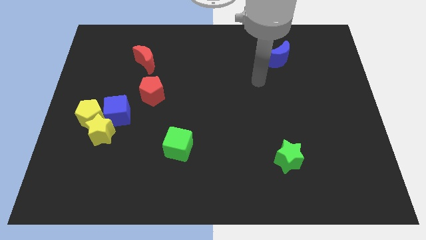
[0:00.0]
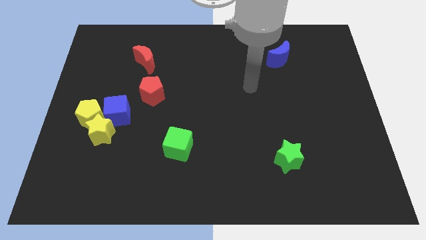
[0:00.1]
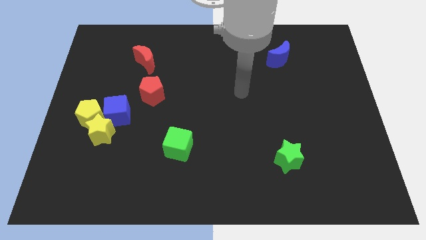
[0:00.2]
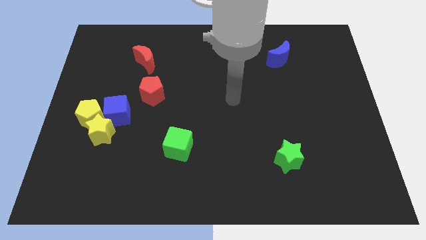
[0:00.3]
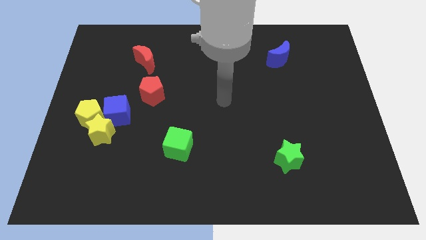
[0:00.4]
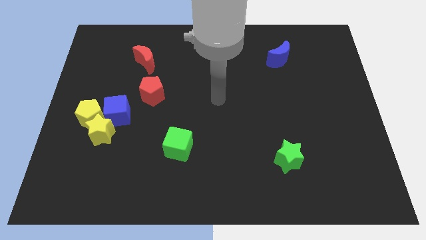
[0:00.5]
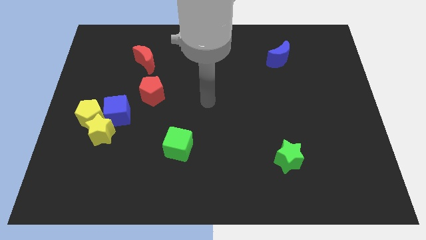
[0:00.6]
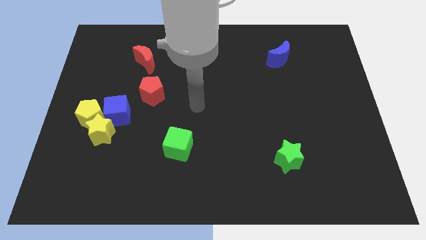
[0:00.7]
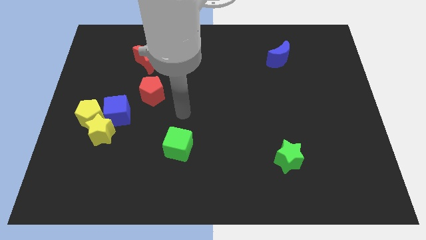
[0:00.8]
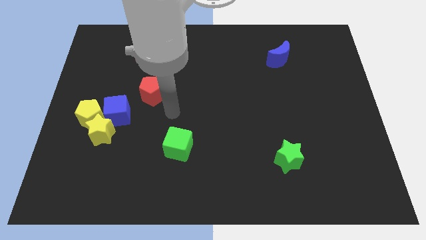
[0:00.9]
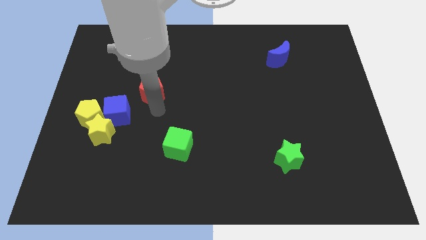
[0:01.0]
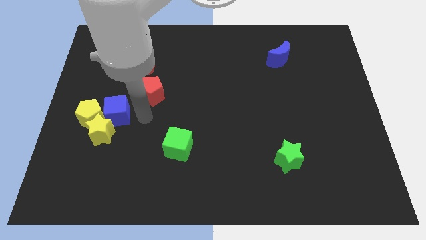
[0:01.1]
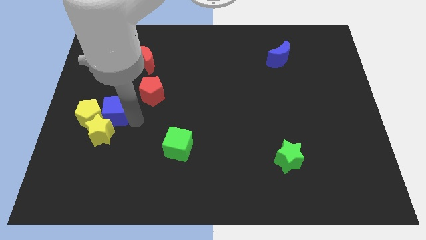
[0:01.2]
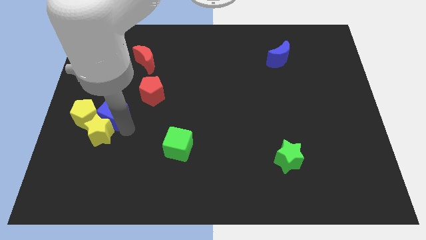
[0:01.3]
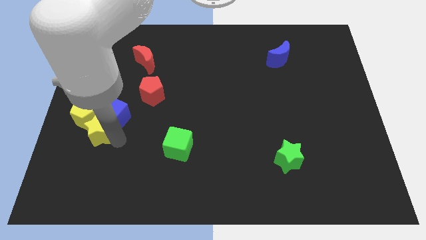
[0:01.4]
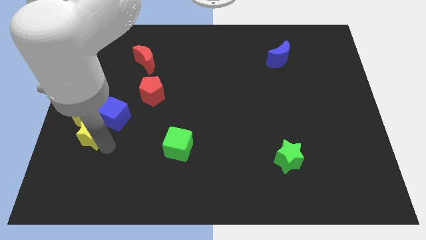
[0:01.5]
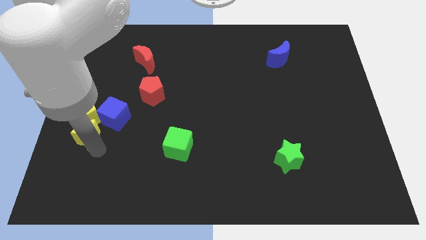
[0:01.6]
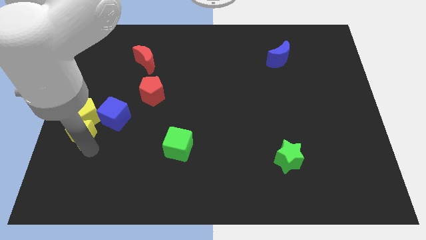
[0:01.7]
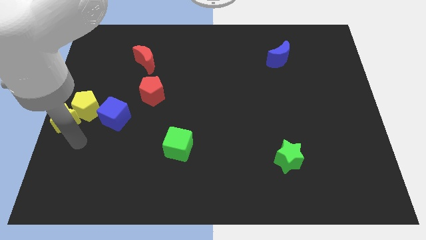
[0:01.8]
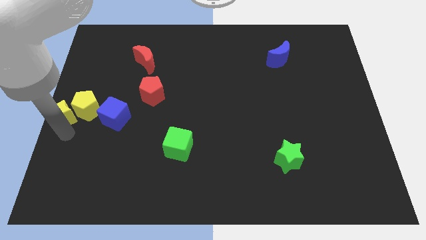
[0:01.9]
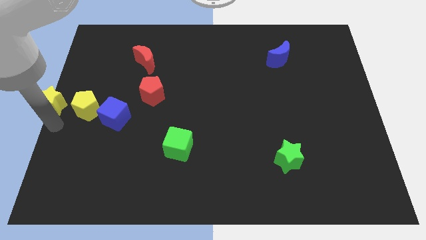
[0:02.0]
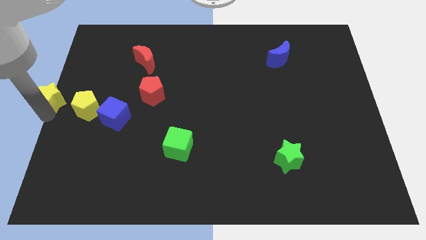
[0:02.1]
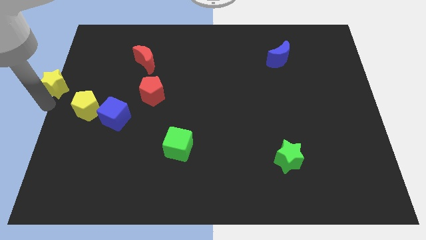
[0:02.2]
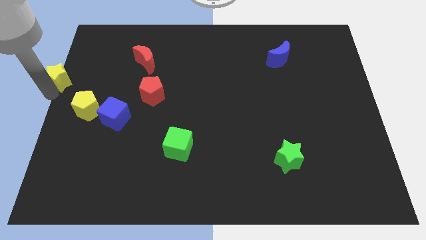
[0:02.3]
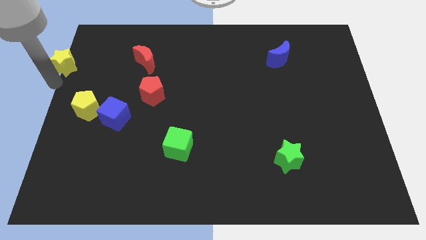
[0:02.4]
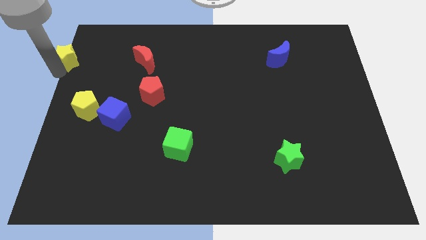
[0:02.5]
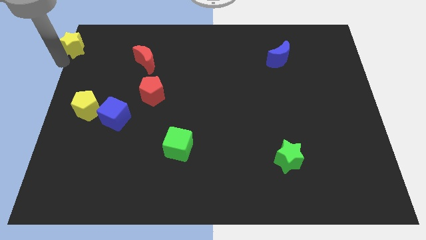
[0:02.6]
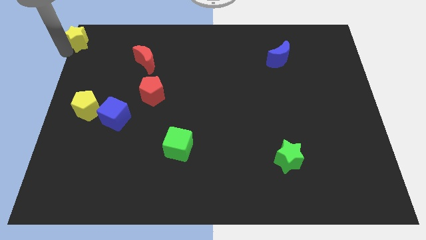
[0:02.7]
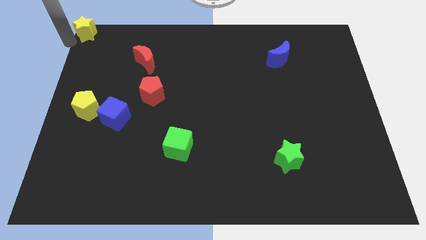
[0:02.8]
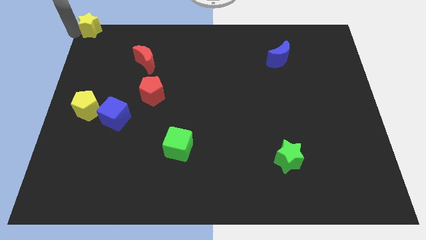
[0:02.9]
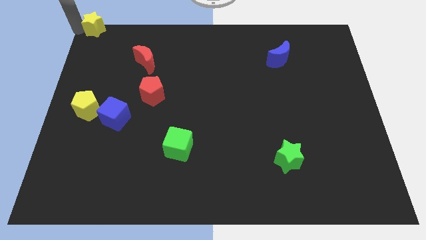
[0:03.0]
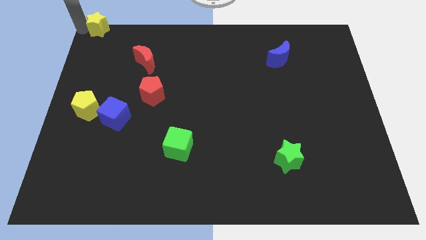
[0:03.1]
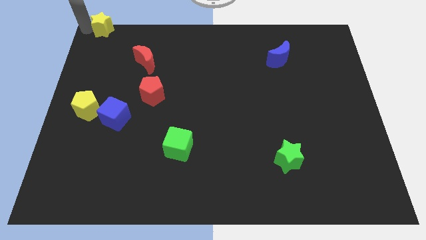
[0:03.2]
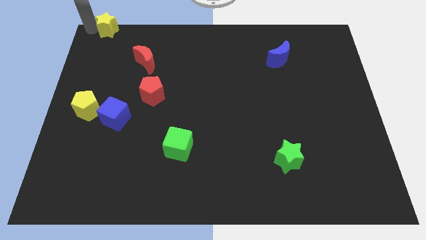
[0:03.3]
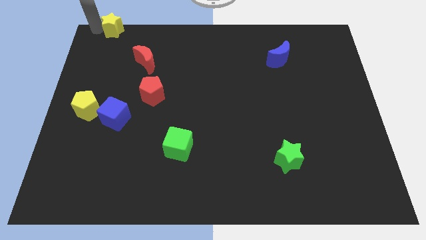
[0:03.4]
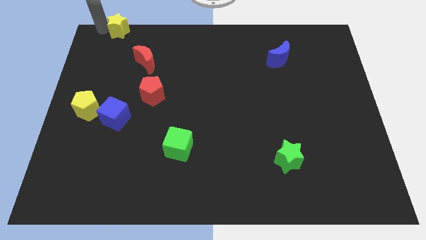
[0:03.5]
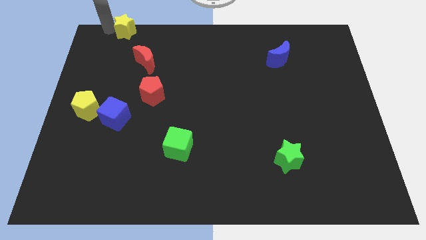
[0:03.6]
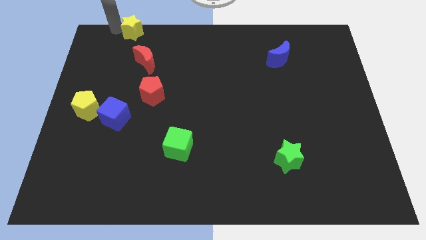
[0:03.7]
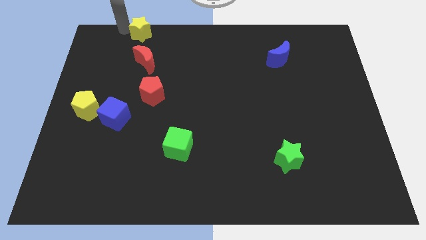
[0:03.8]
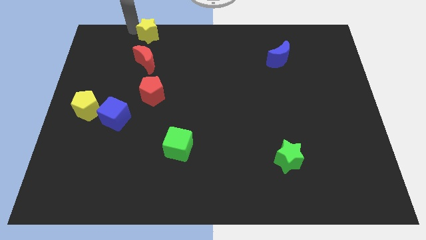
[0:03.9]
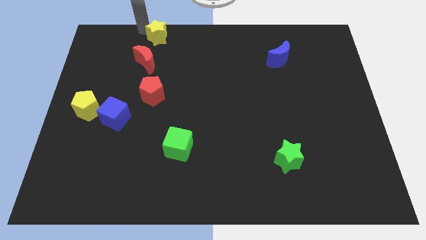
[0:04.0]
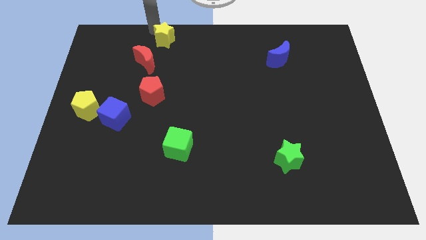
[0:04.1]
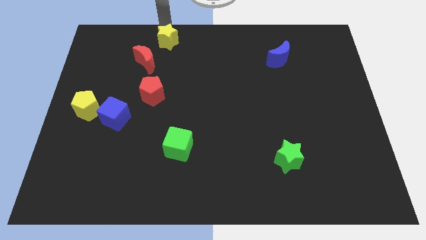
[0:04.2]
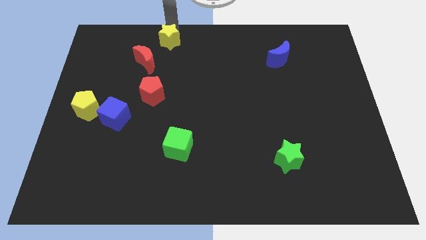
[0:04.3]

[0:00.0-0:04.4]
push the yellow star upwards and right

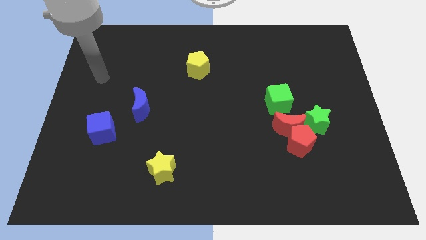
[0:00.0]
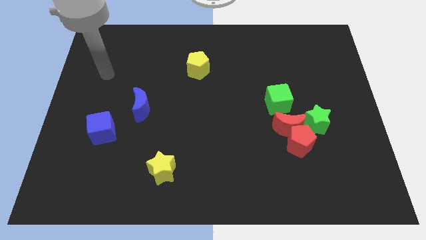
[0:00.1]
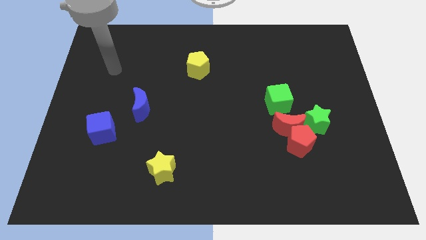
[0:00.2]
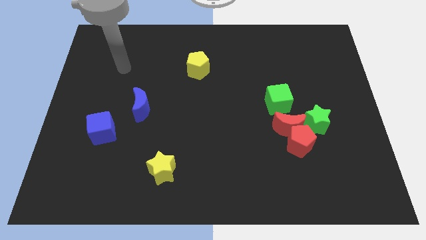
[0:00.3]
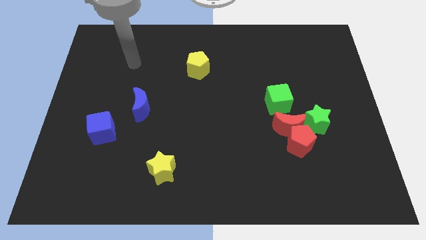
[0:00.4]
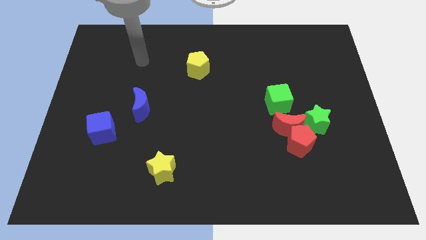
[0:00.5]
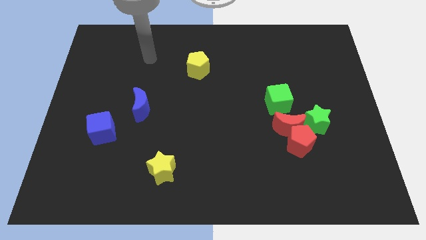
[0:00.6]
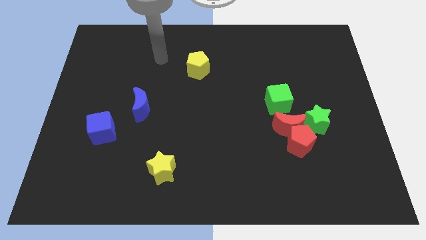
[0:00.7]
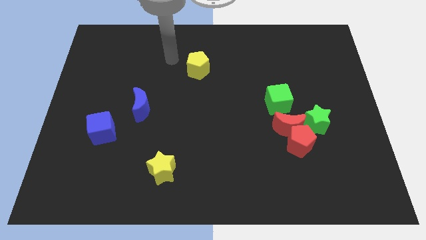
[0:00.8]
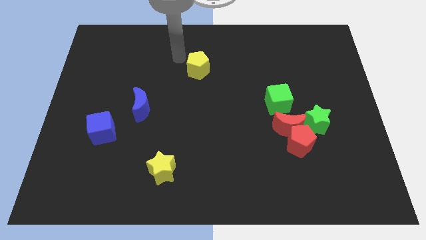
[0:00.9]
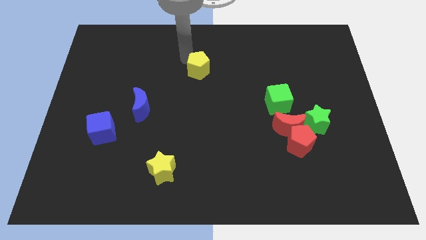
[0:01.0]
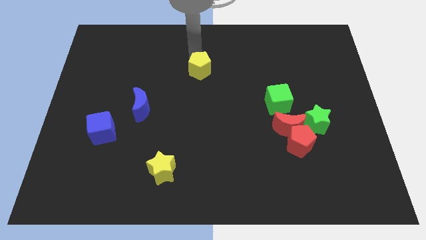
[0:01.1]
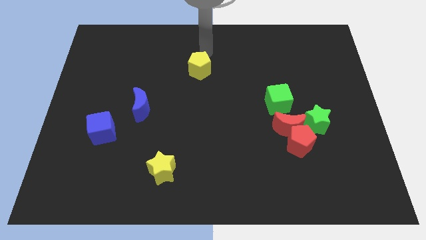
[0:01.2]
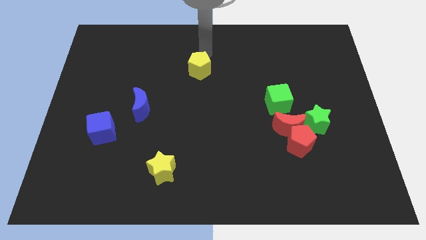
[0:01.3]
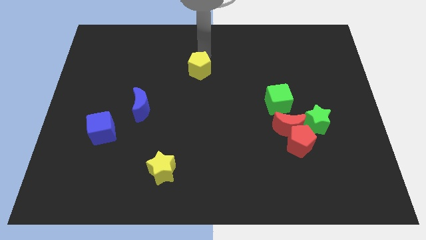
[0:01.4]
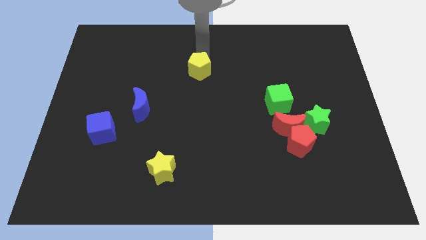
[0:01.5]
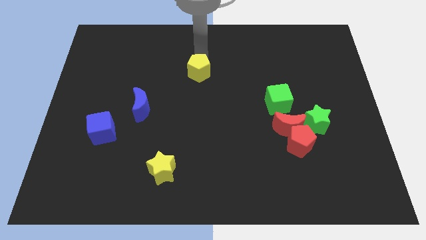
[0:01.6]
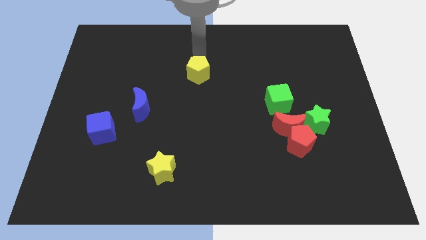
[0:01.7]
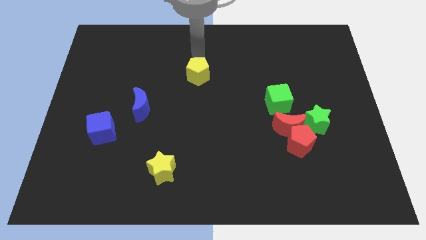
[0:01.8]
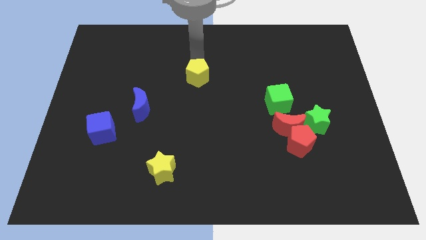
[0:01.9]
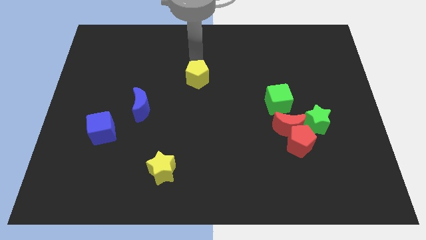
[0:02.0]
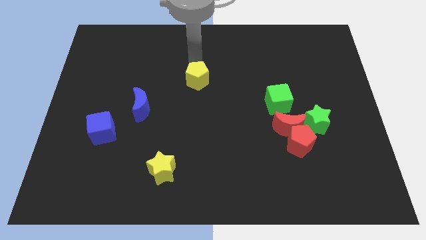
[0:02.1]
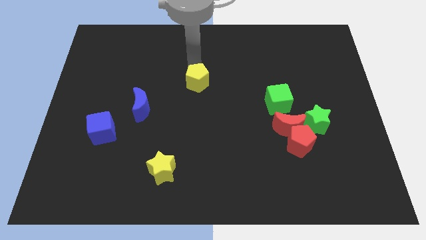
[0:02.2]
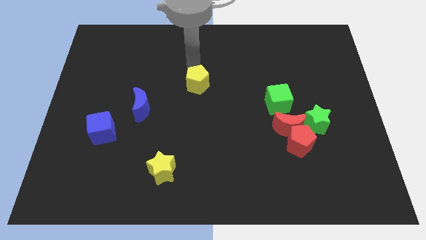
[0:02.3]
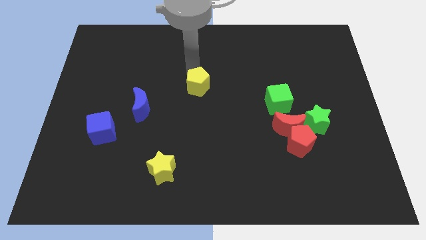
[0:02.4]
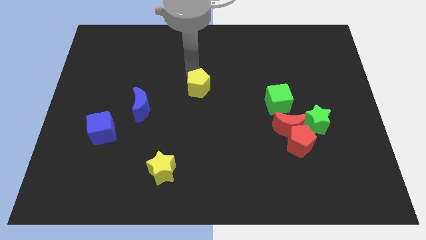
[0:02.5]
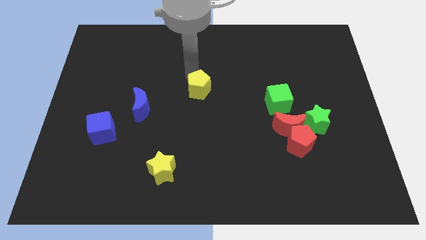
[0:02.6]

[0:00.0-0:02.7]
slide the yellow pentagon a little down

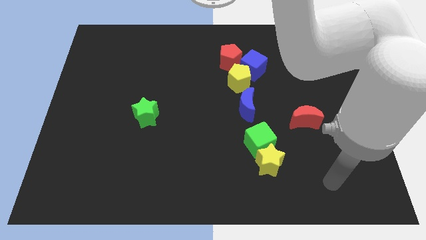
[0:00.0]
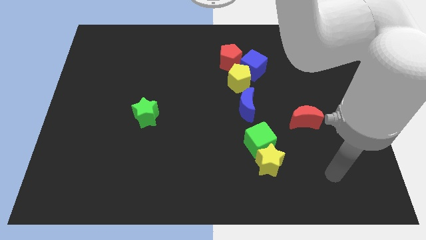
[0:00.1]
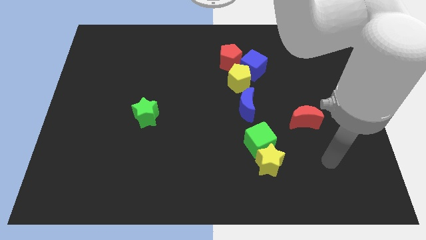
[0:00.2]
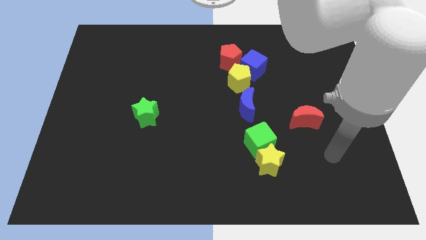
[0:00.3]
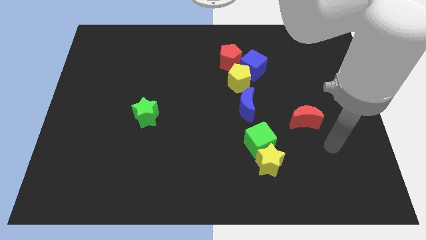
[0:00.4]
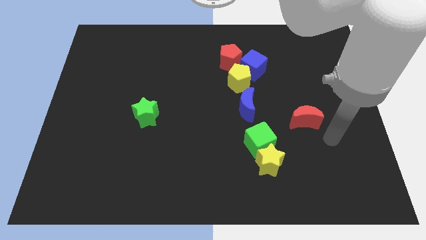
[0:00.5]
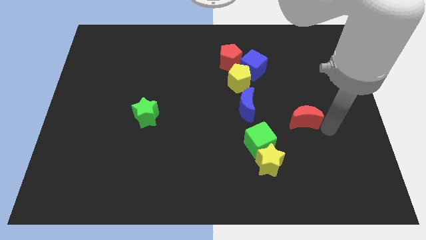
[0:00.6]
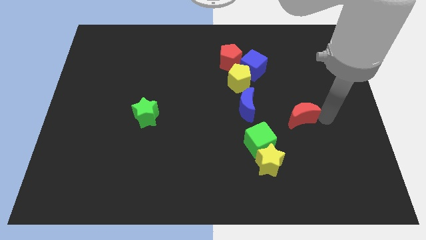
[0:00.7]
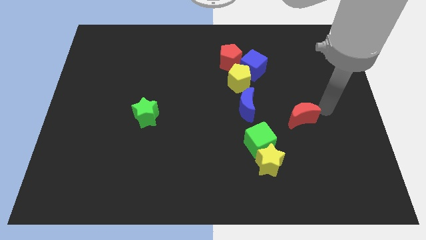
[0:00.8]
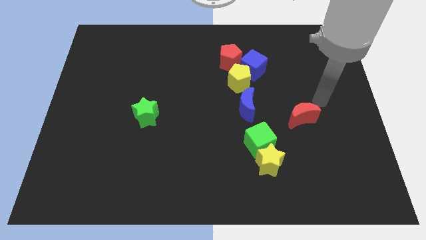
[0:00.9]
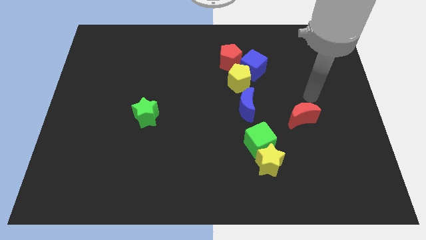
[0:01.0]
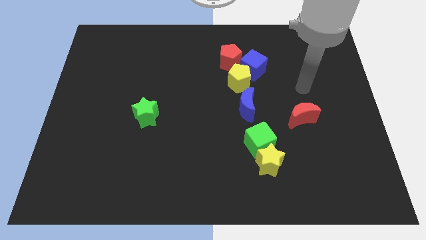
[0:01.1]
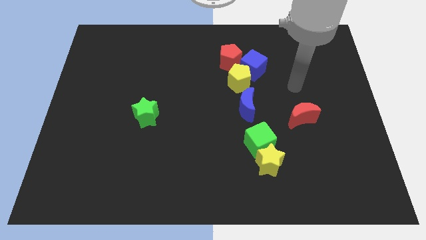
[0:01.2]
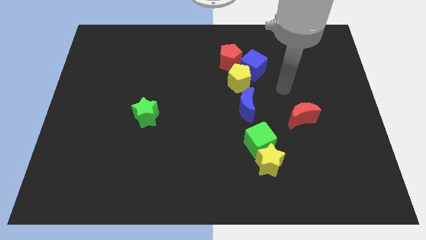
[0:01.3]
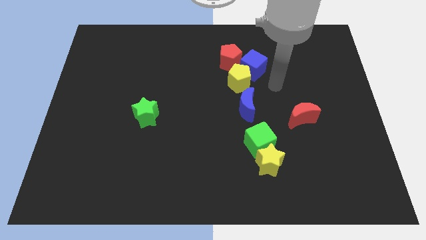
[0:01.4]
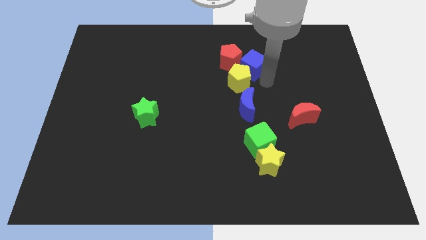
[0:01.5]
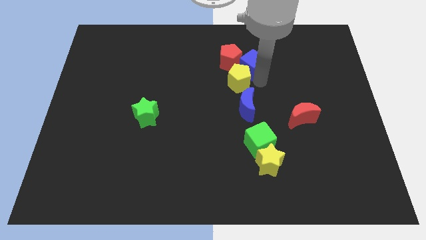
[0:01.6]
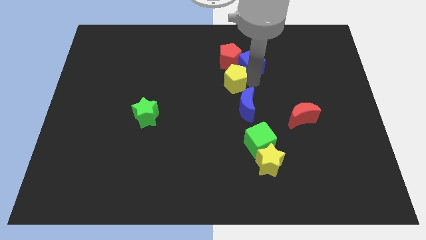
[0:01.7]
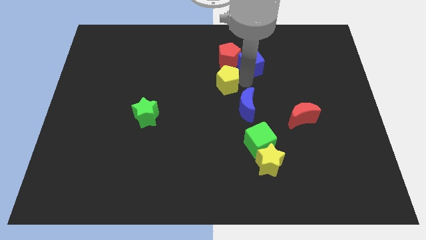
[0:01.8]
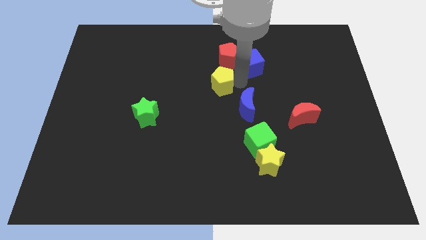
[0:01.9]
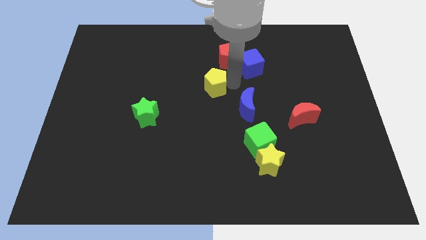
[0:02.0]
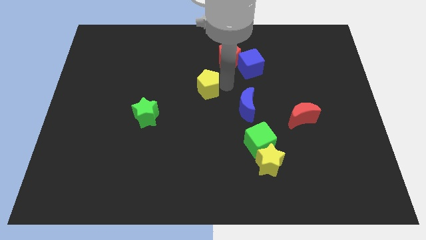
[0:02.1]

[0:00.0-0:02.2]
move the yellow pentagon to the left somewhat
